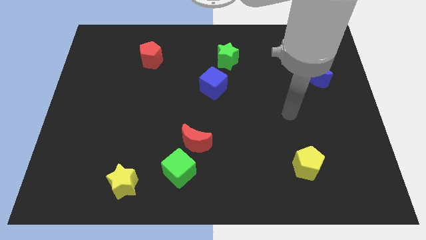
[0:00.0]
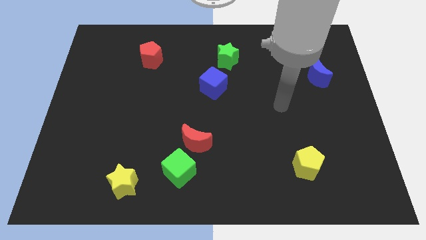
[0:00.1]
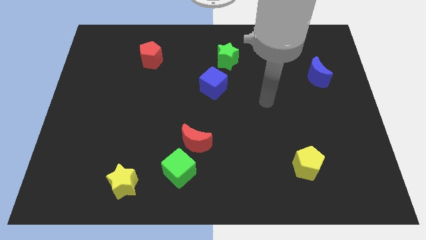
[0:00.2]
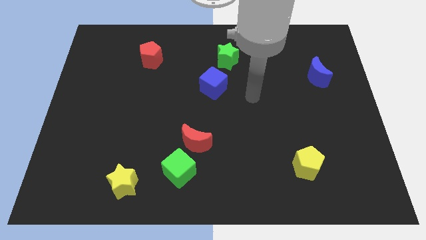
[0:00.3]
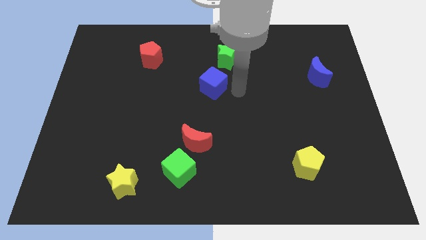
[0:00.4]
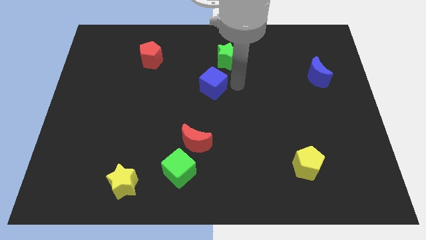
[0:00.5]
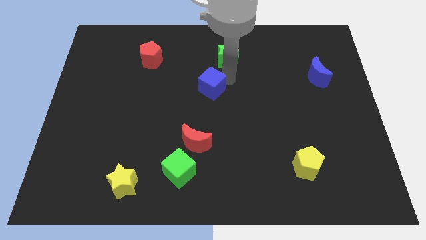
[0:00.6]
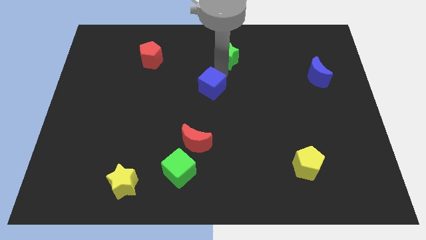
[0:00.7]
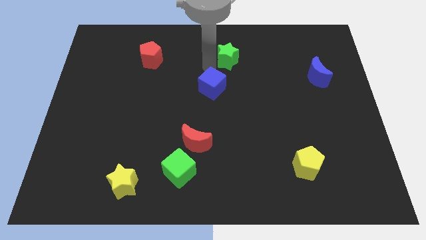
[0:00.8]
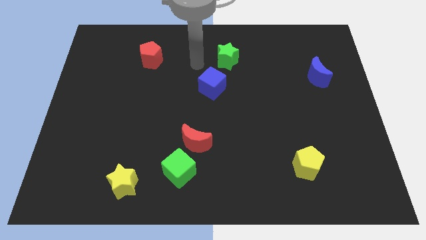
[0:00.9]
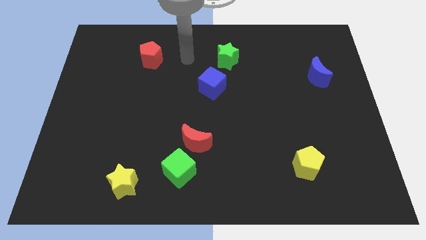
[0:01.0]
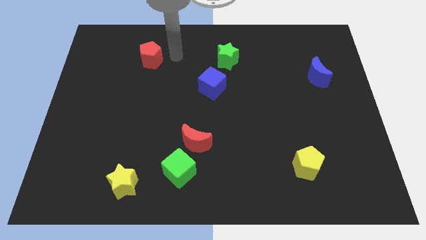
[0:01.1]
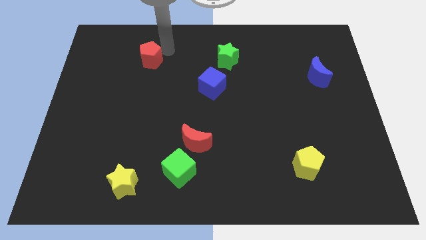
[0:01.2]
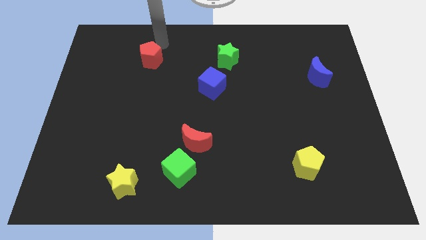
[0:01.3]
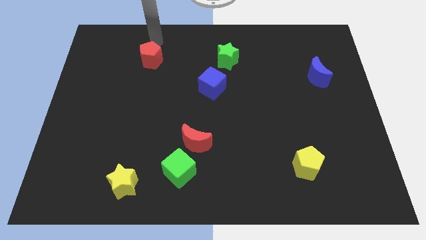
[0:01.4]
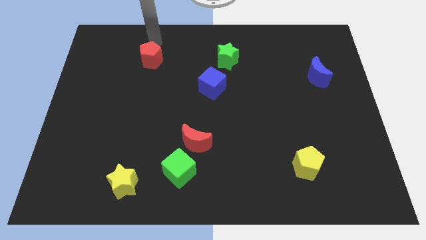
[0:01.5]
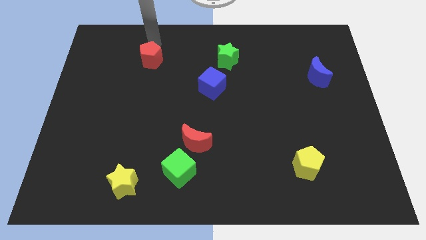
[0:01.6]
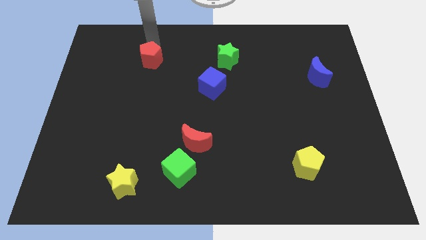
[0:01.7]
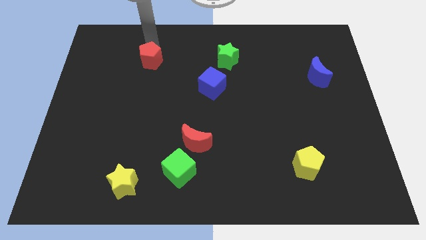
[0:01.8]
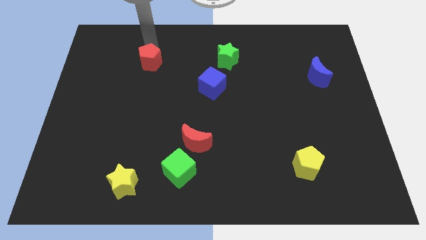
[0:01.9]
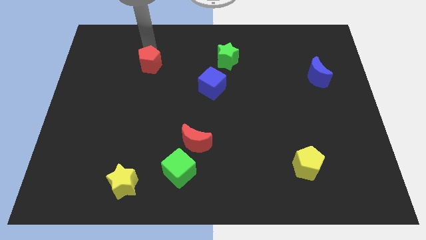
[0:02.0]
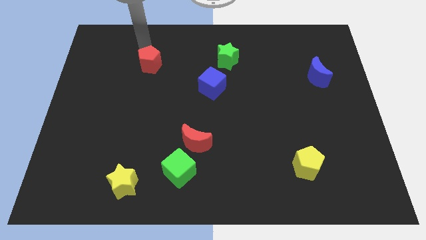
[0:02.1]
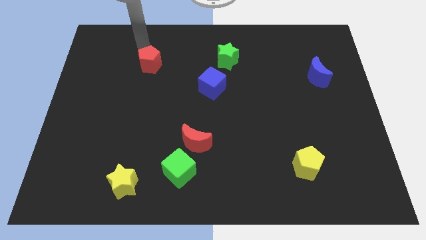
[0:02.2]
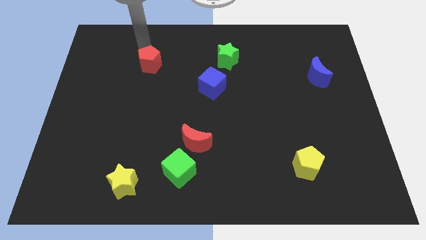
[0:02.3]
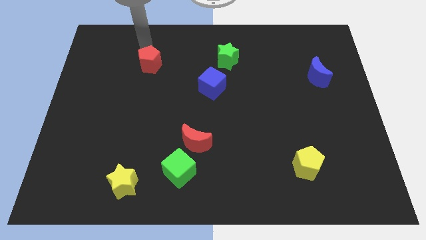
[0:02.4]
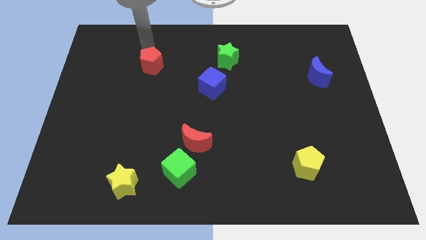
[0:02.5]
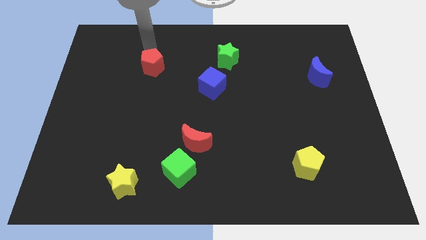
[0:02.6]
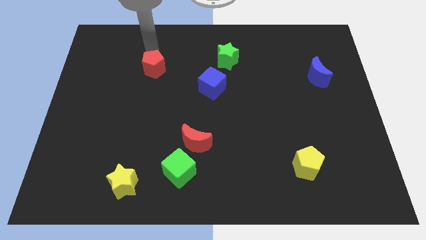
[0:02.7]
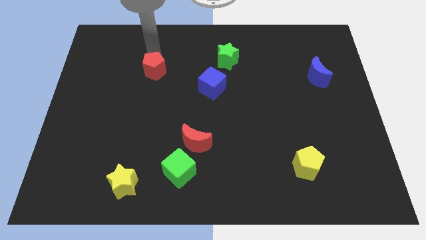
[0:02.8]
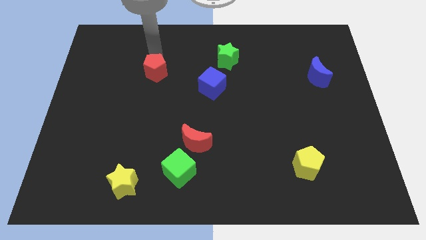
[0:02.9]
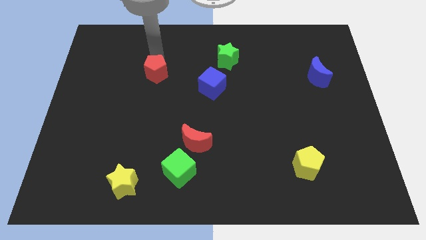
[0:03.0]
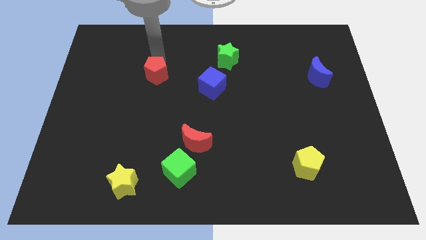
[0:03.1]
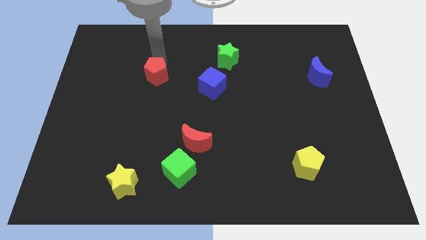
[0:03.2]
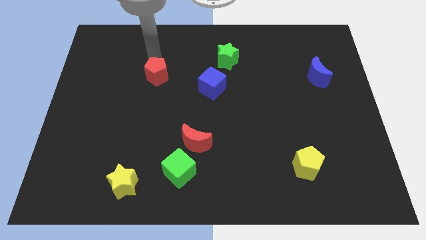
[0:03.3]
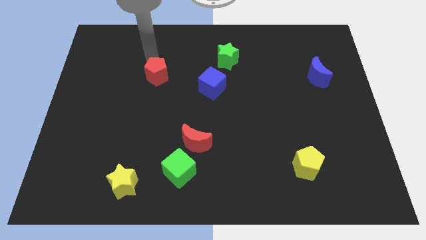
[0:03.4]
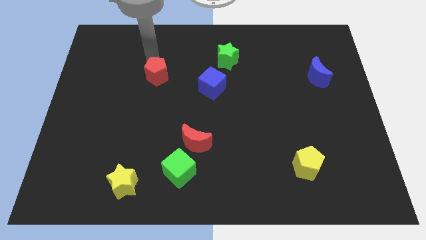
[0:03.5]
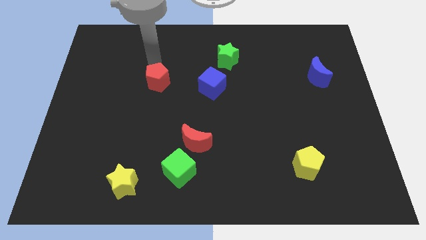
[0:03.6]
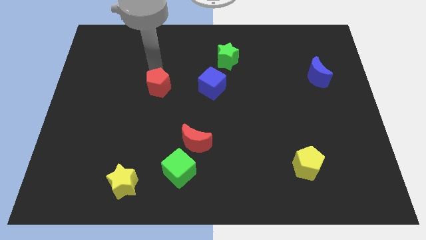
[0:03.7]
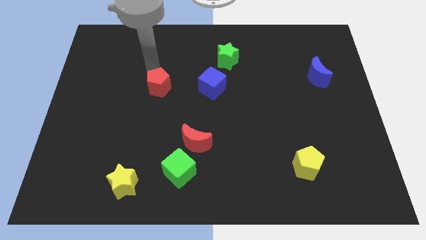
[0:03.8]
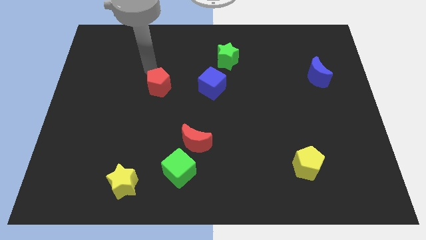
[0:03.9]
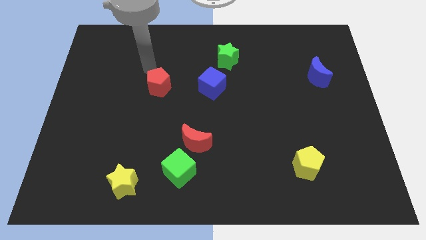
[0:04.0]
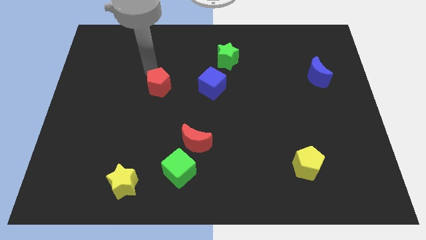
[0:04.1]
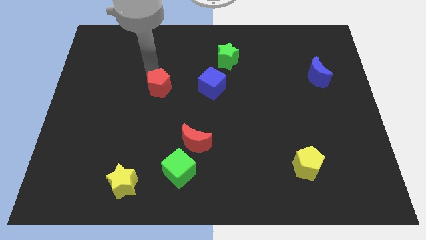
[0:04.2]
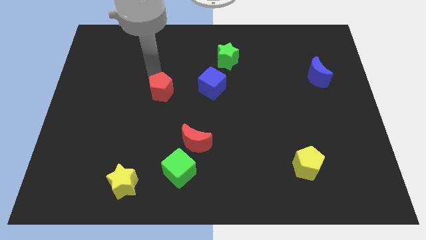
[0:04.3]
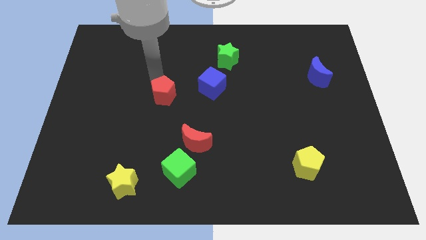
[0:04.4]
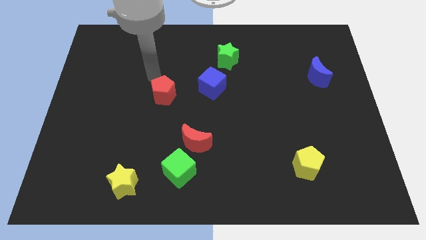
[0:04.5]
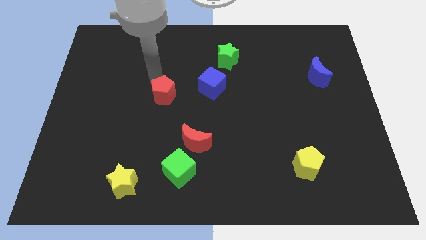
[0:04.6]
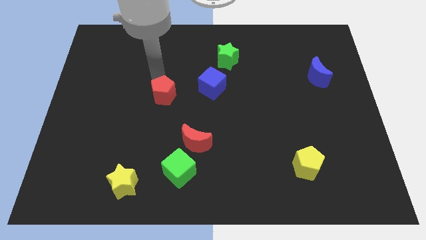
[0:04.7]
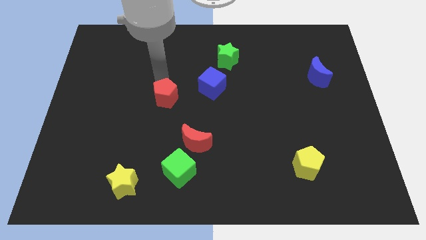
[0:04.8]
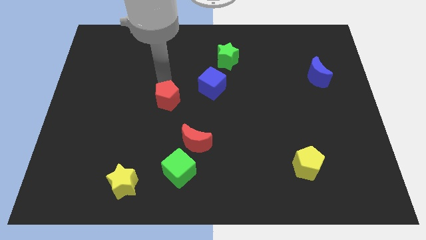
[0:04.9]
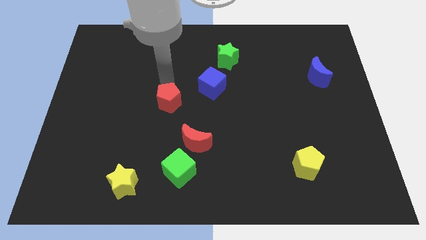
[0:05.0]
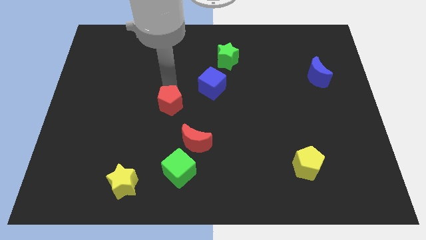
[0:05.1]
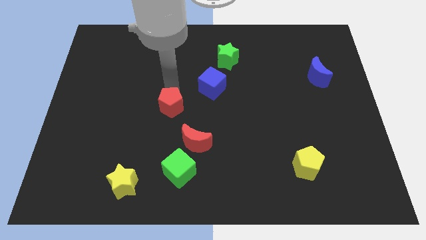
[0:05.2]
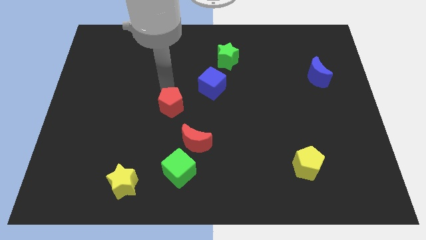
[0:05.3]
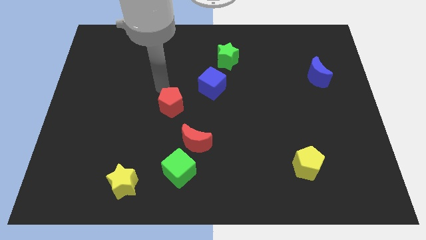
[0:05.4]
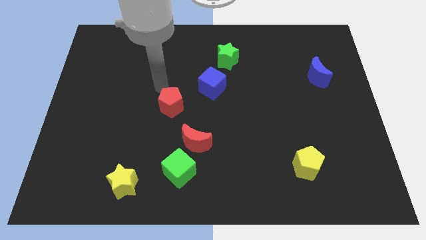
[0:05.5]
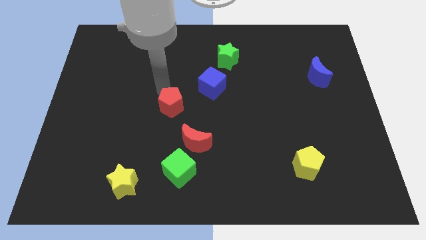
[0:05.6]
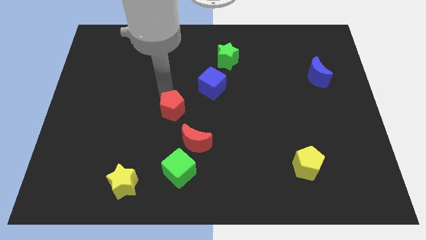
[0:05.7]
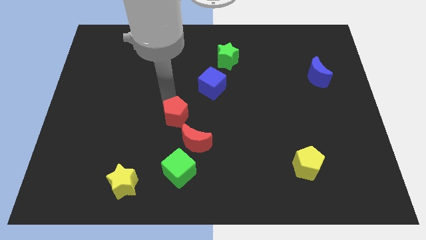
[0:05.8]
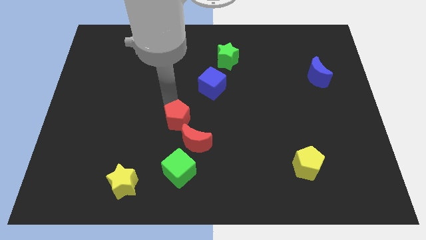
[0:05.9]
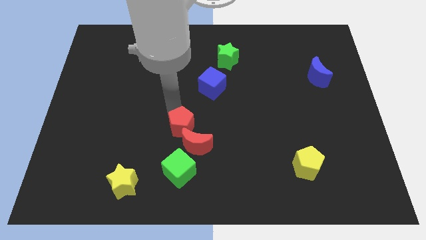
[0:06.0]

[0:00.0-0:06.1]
slide the red pentagon close to the red moon
